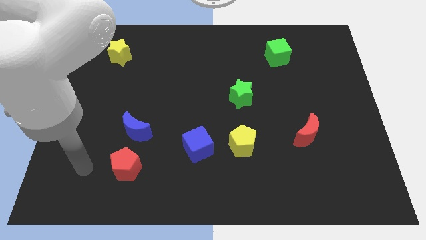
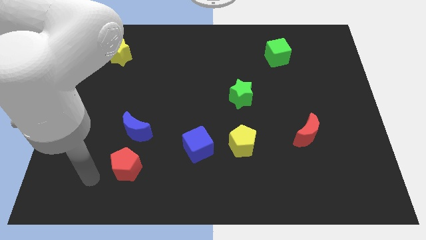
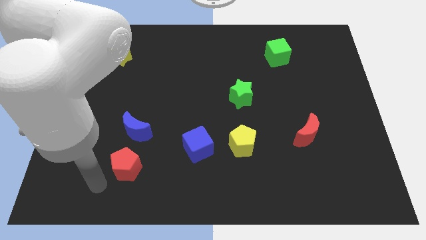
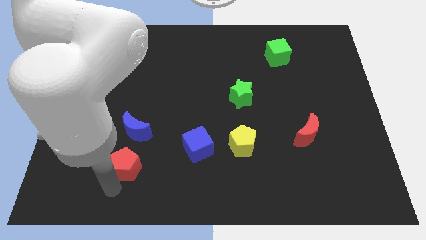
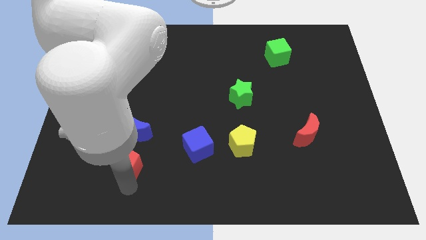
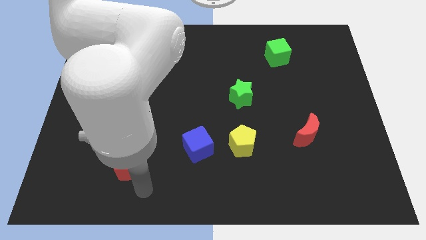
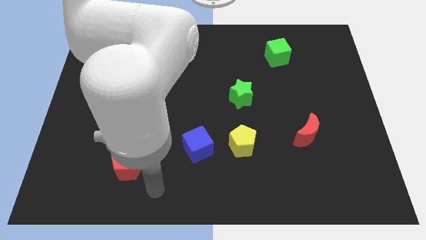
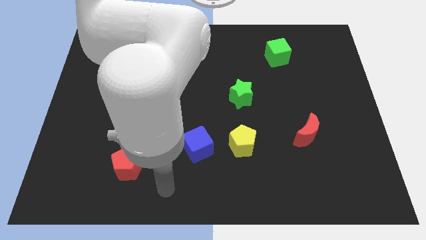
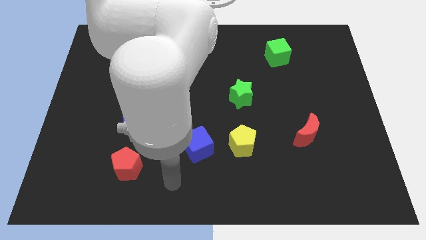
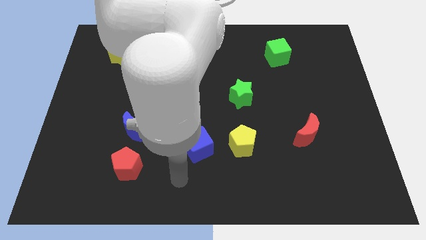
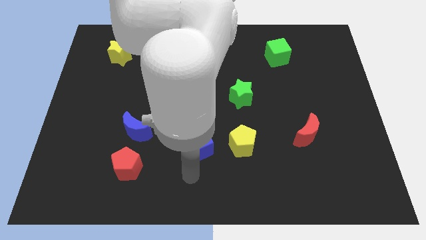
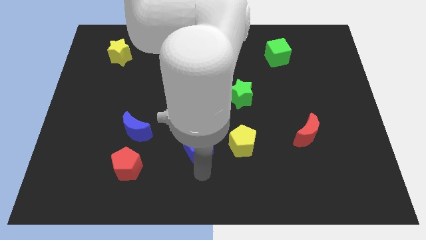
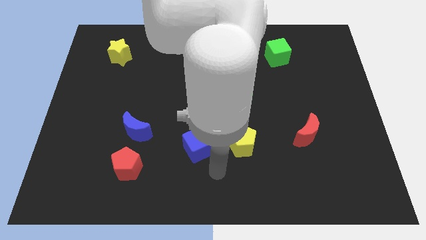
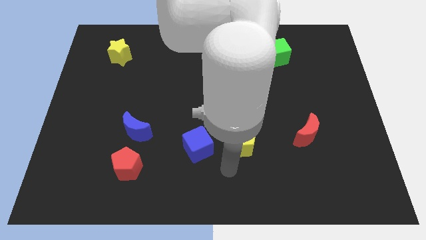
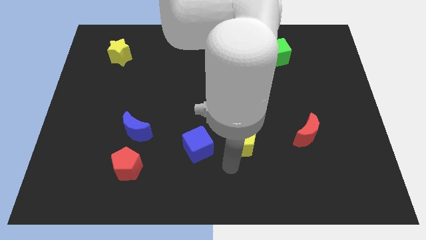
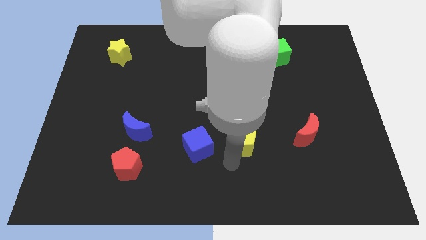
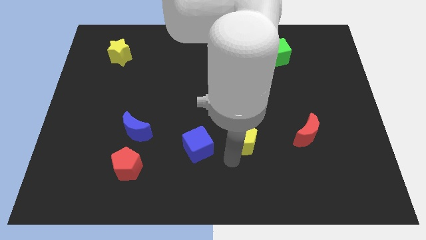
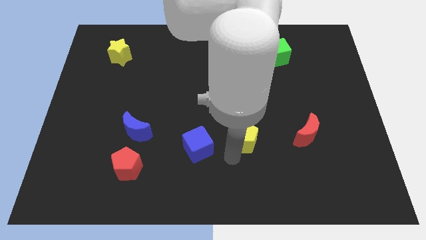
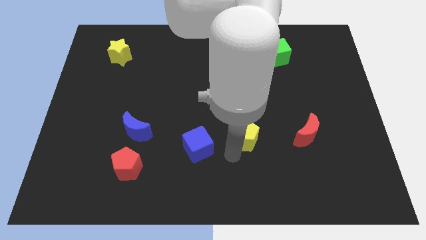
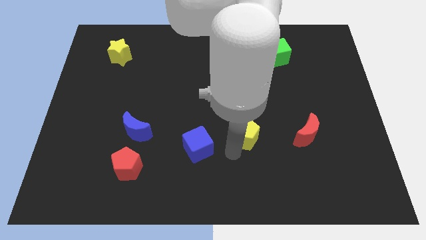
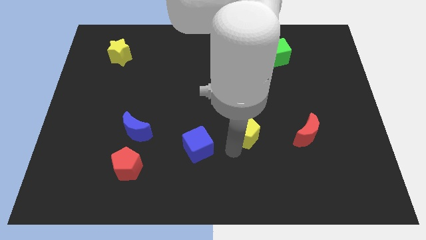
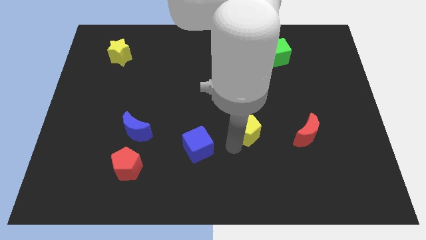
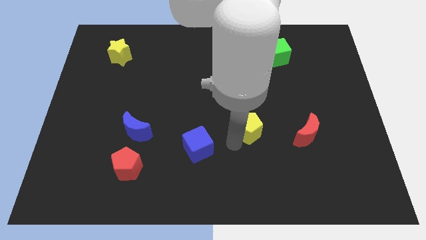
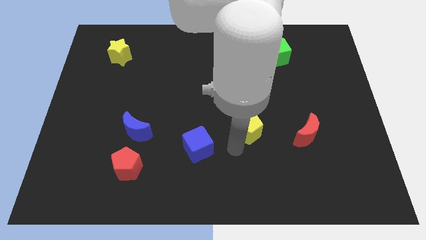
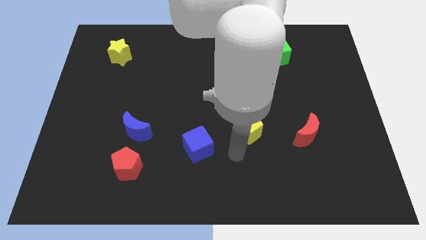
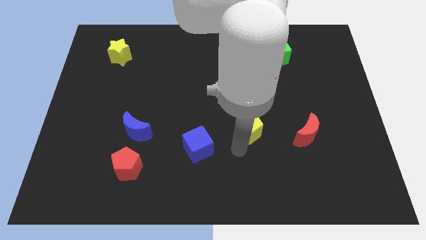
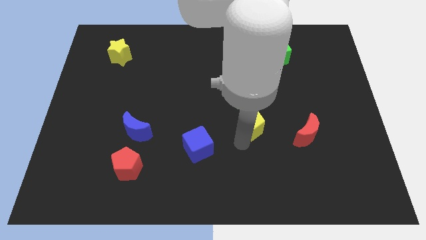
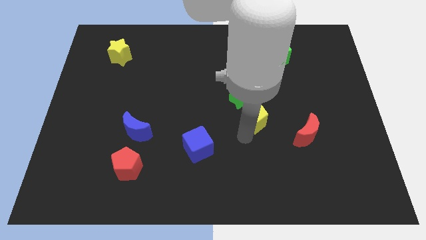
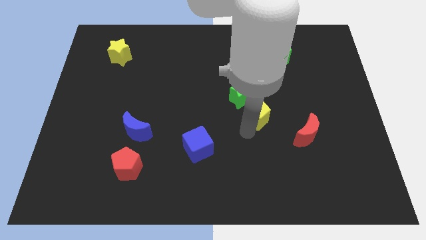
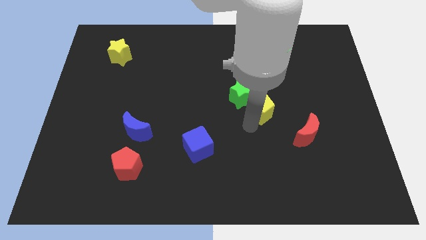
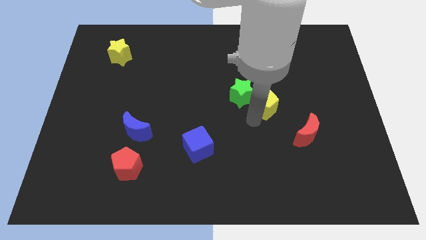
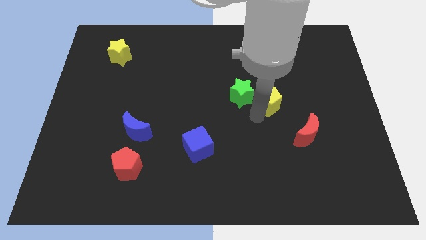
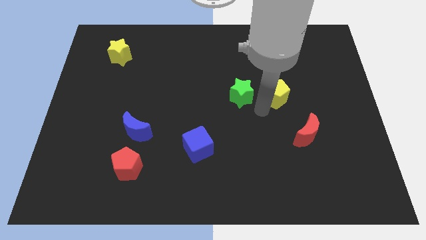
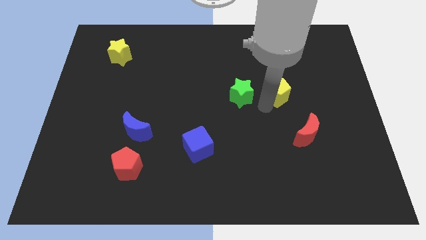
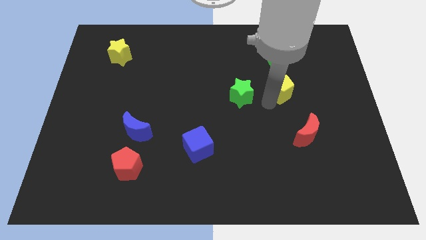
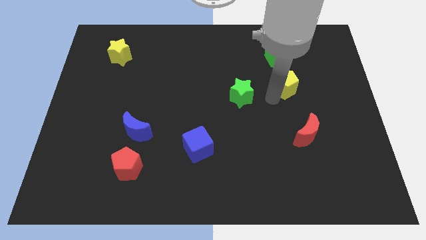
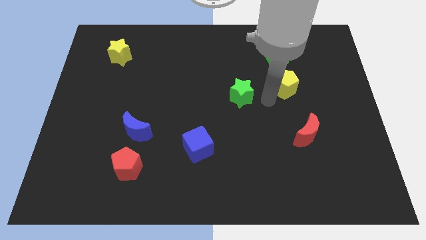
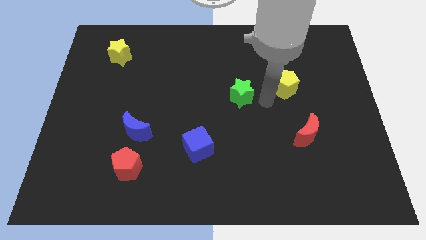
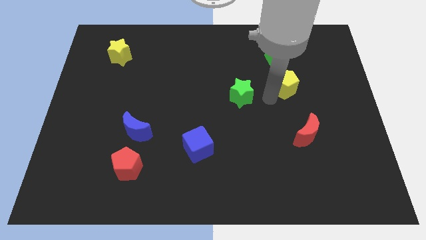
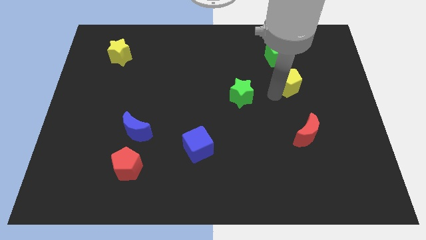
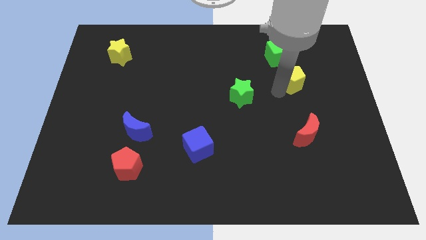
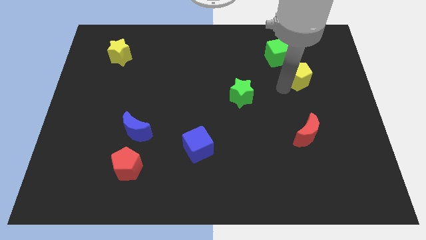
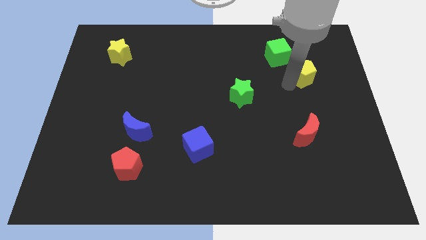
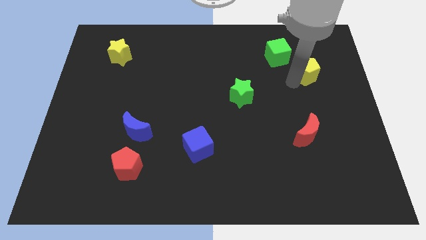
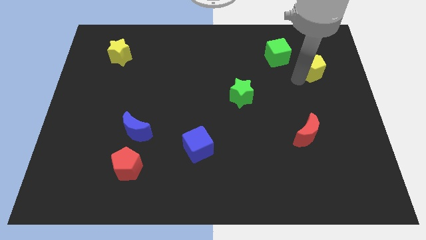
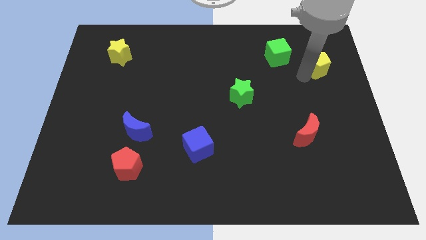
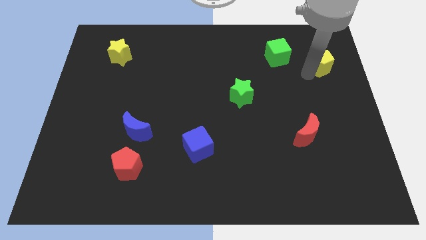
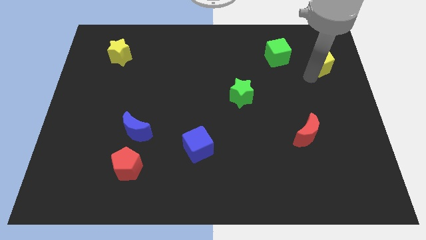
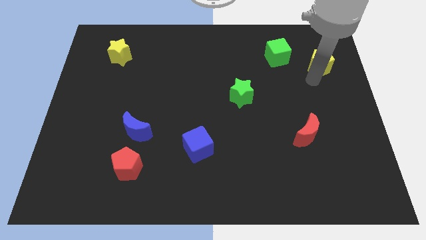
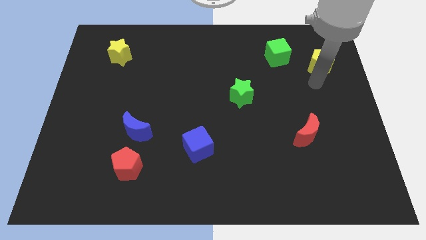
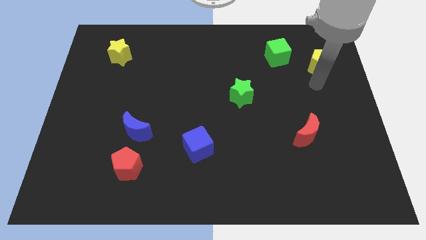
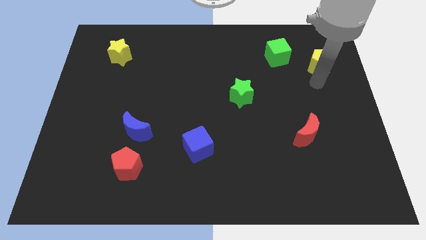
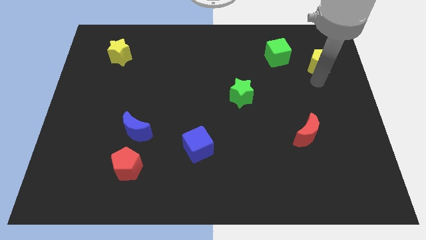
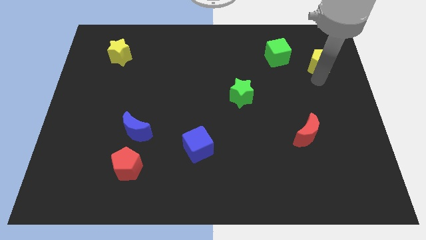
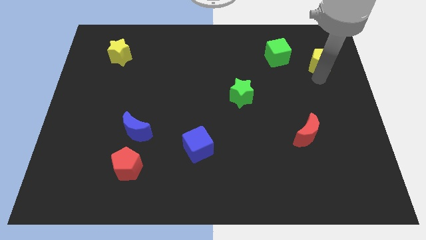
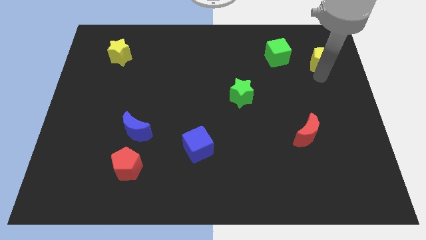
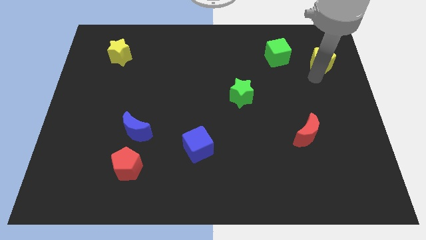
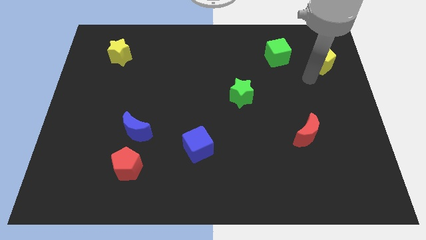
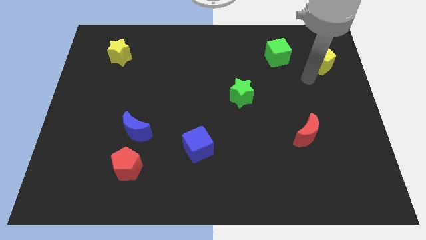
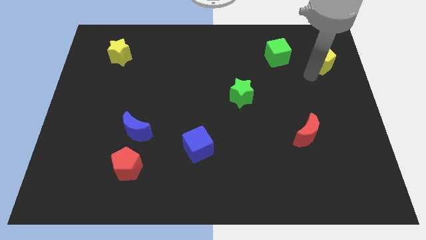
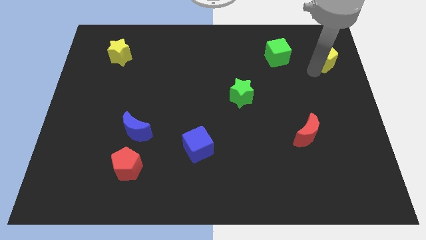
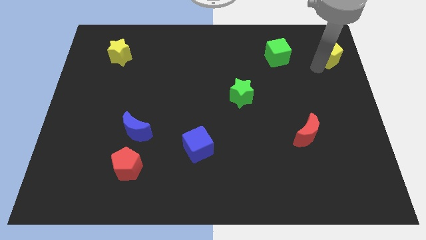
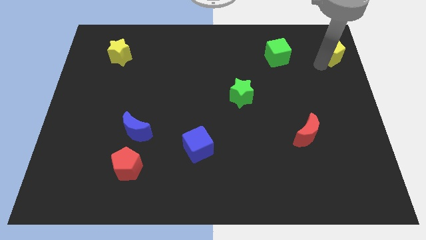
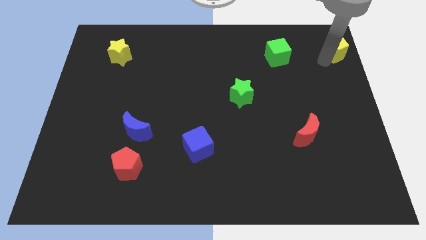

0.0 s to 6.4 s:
put the yellow pentagon to the upper right corner

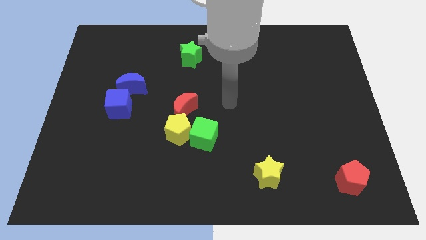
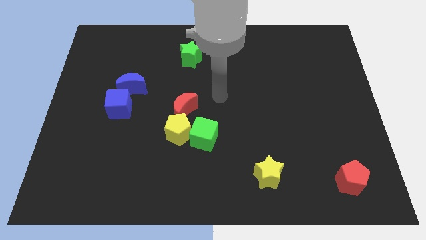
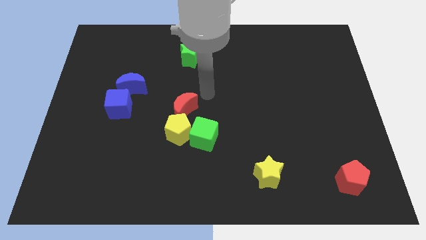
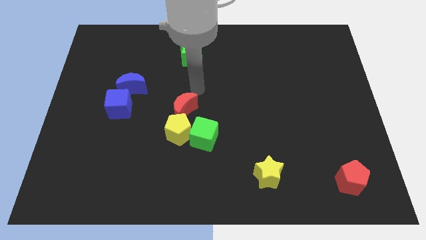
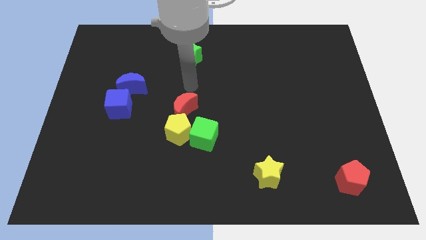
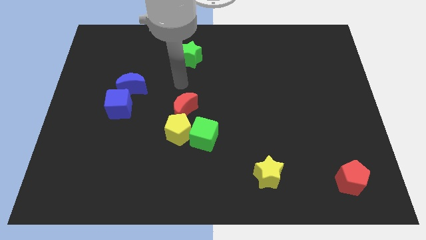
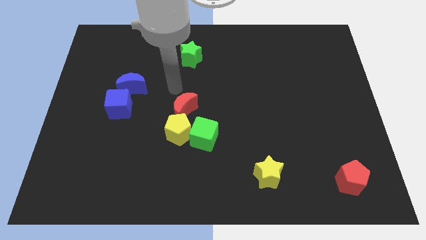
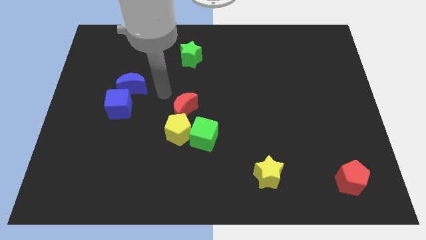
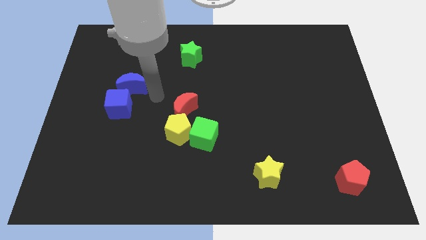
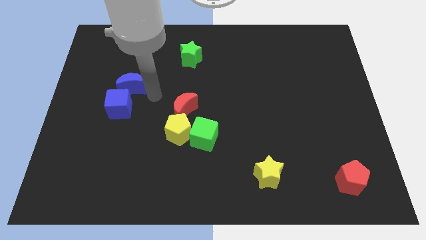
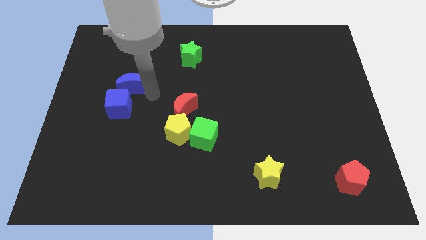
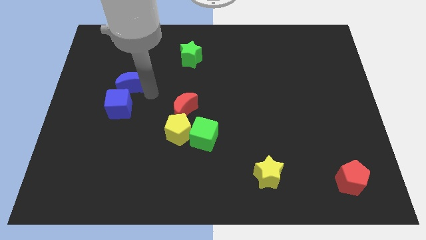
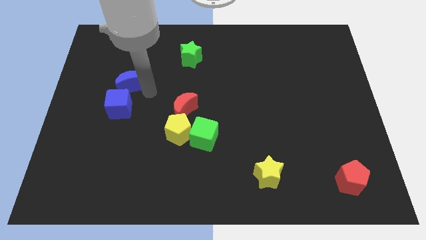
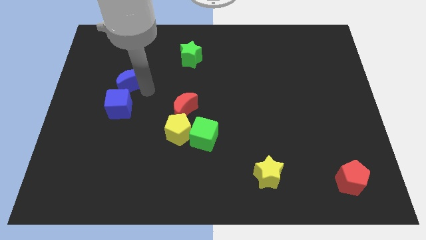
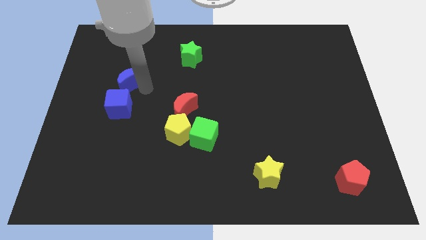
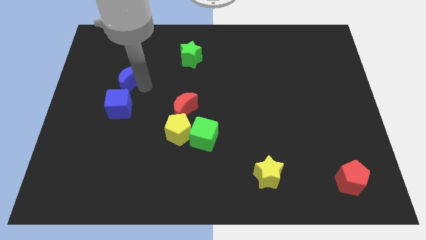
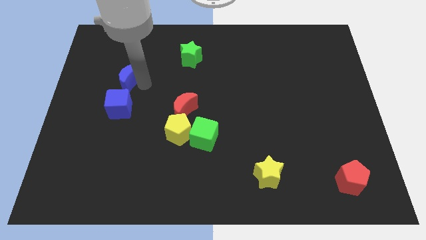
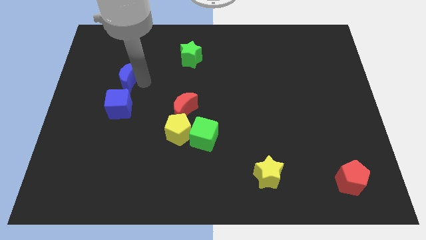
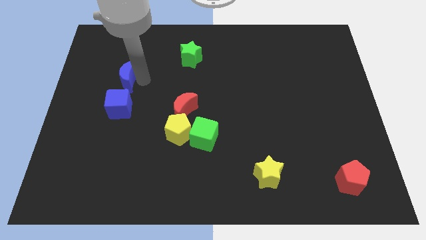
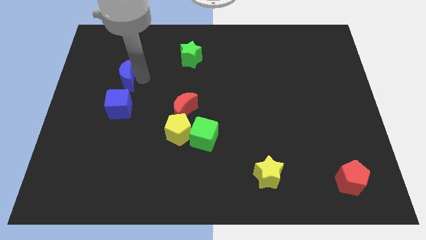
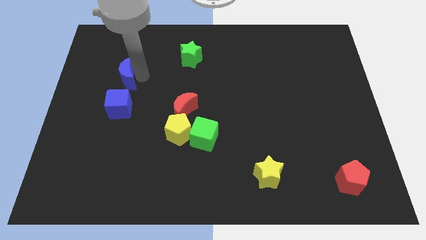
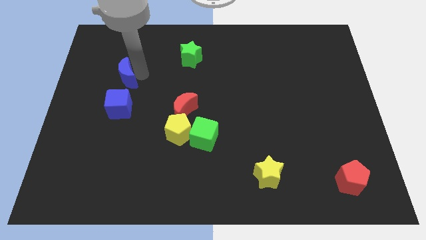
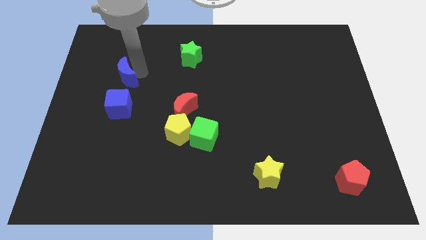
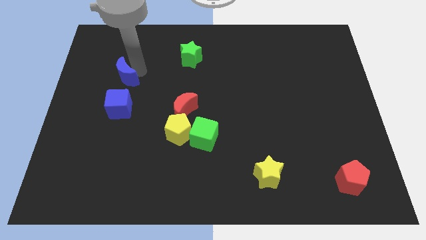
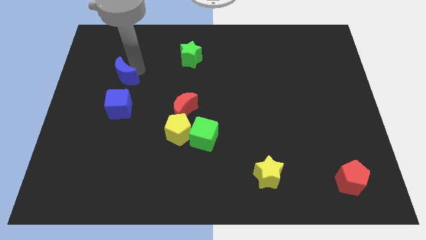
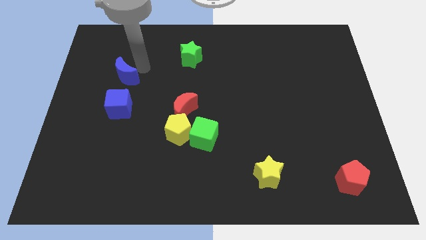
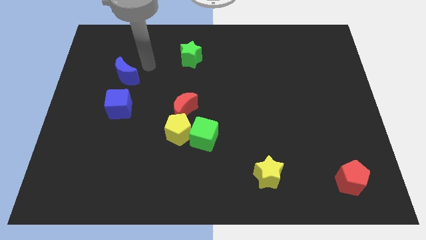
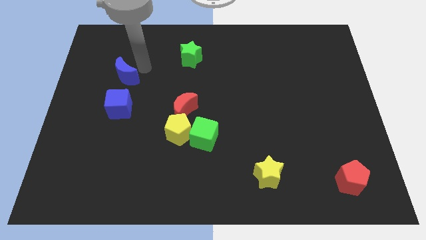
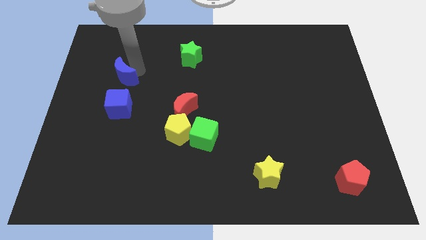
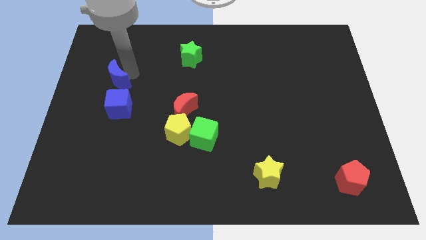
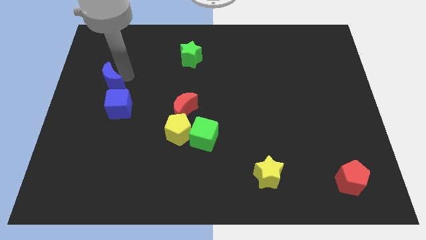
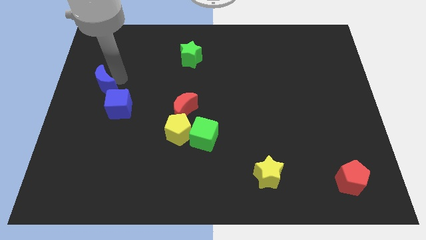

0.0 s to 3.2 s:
slide the blue moon to the left side of the board
